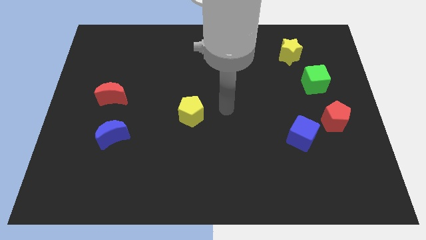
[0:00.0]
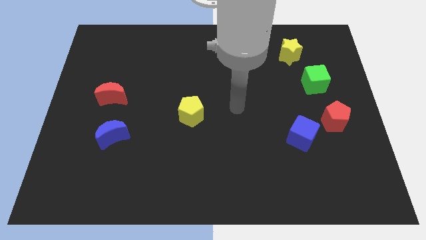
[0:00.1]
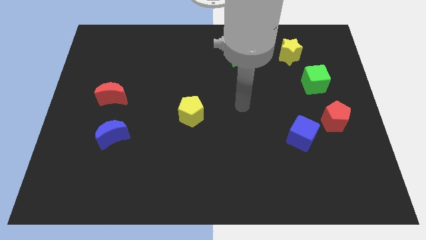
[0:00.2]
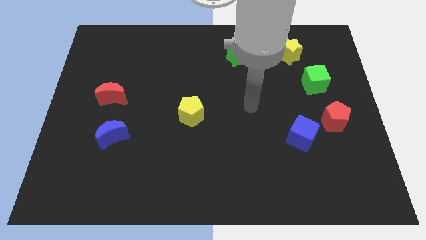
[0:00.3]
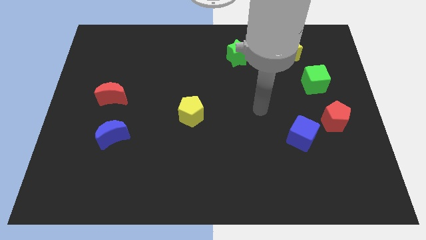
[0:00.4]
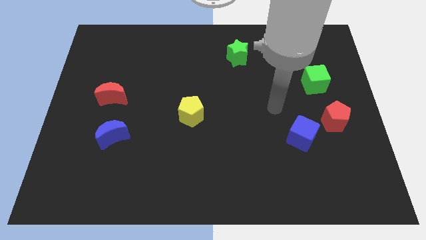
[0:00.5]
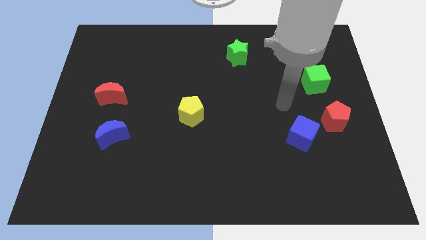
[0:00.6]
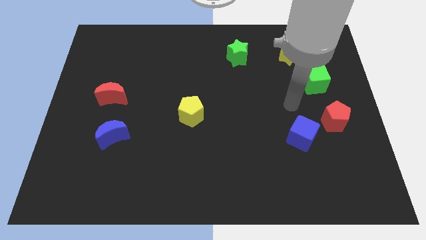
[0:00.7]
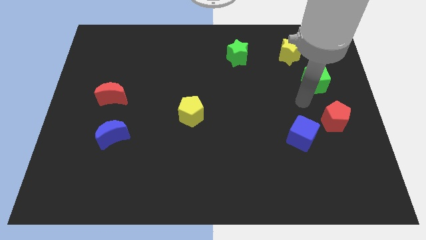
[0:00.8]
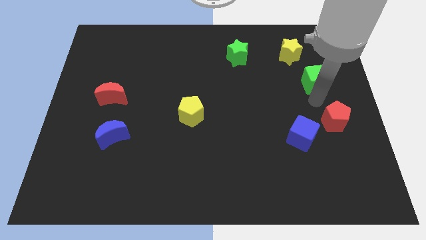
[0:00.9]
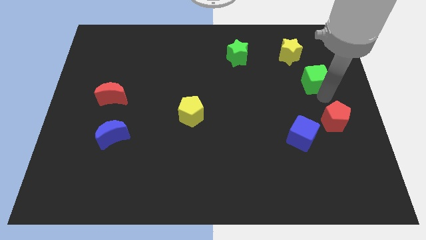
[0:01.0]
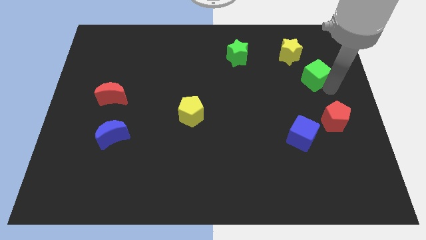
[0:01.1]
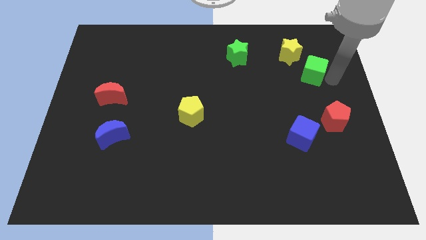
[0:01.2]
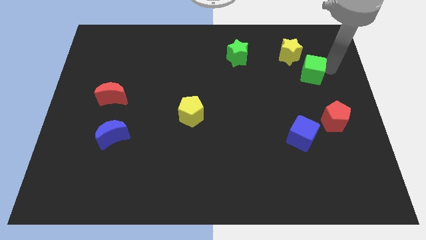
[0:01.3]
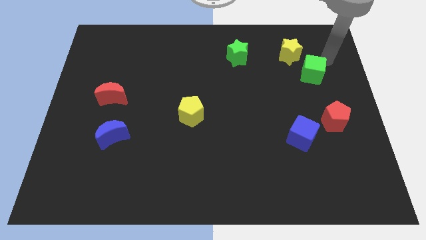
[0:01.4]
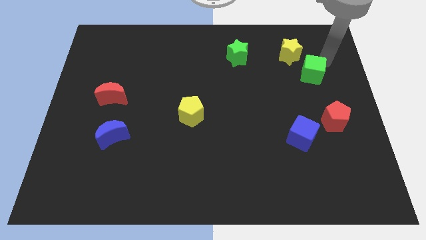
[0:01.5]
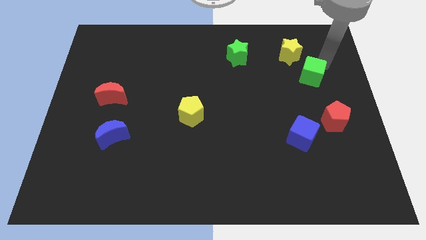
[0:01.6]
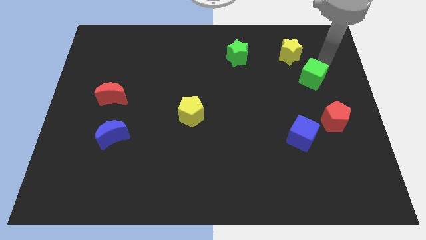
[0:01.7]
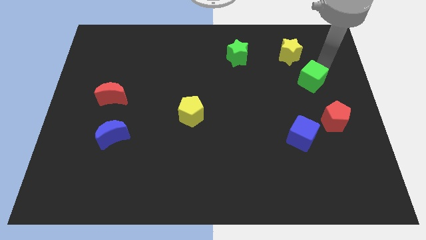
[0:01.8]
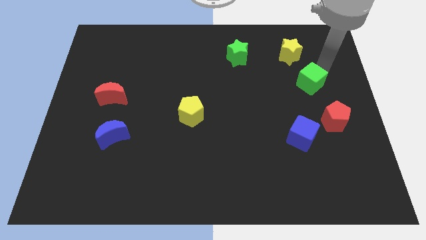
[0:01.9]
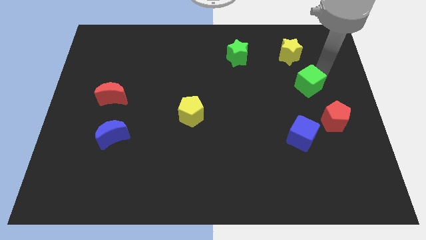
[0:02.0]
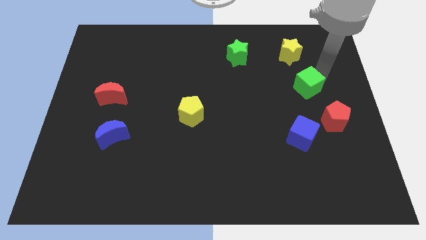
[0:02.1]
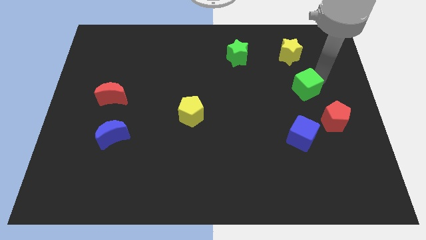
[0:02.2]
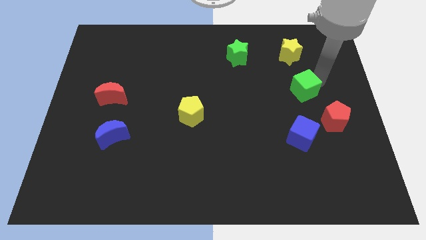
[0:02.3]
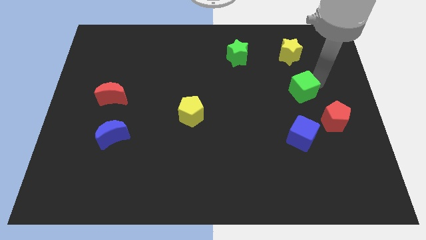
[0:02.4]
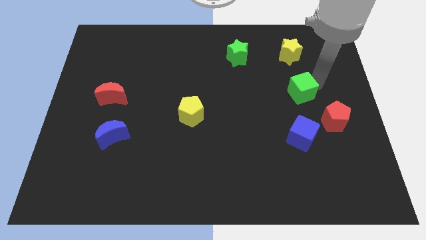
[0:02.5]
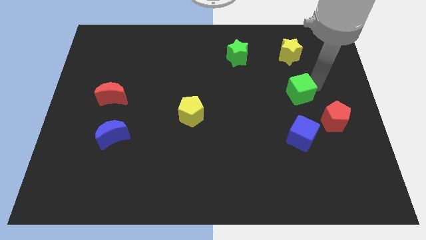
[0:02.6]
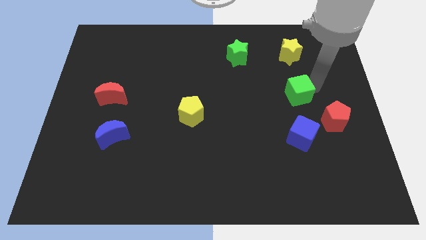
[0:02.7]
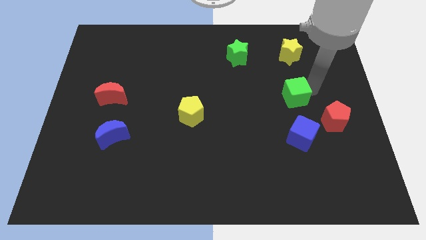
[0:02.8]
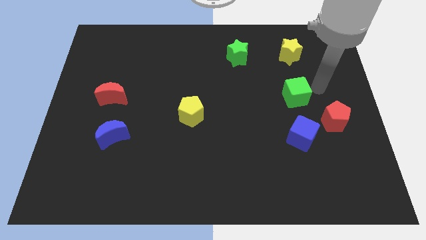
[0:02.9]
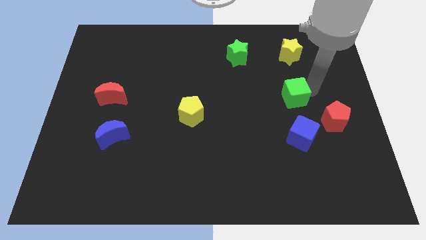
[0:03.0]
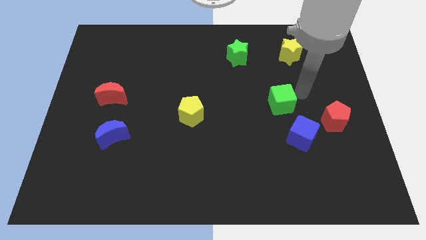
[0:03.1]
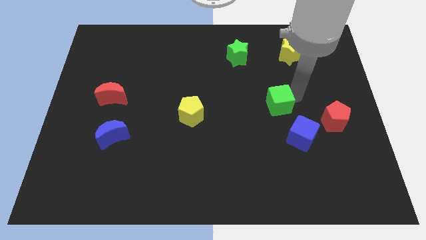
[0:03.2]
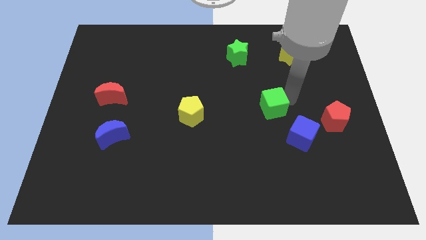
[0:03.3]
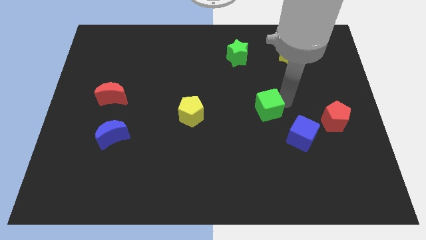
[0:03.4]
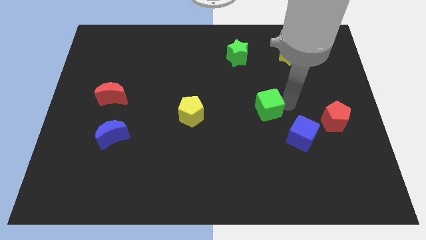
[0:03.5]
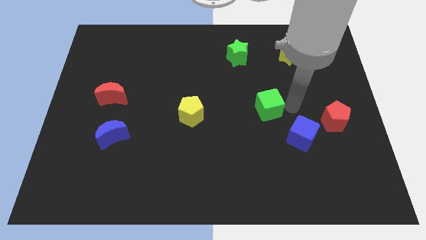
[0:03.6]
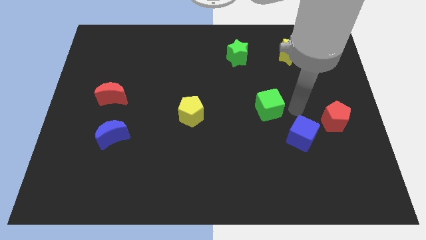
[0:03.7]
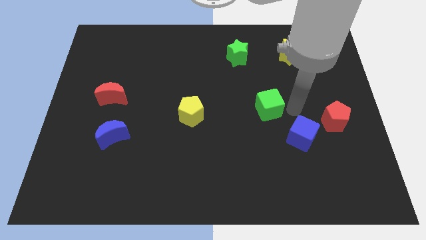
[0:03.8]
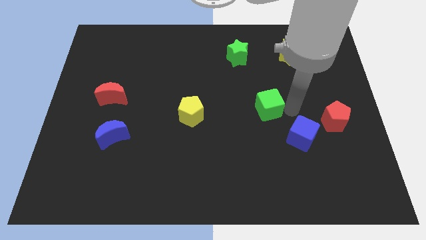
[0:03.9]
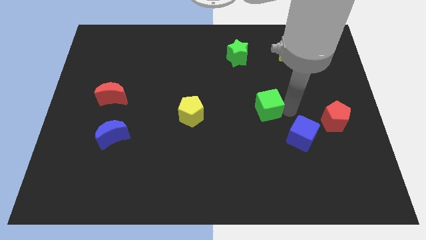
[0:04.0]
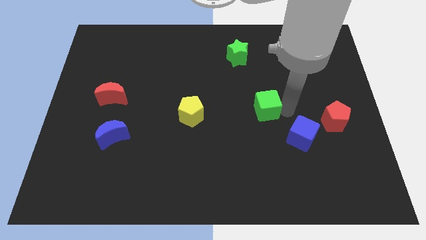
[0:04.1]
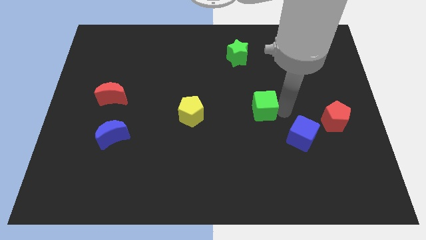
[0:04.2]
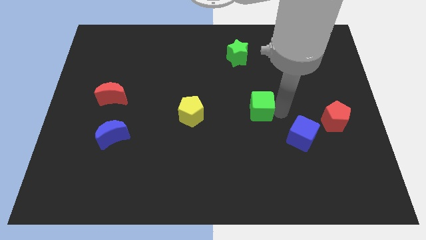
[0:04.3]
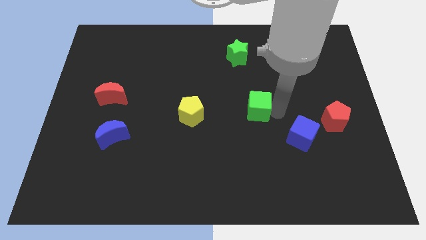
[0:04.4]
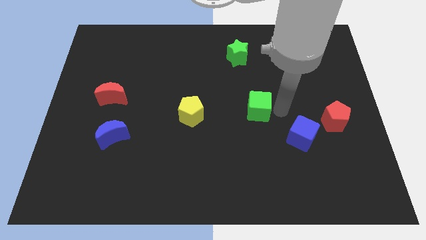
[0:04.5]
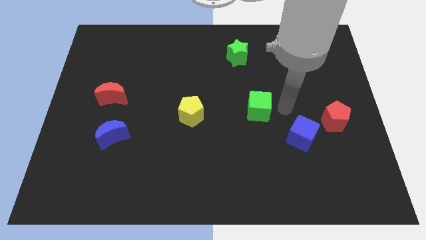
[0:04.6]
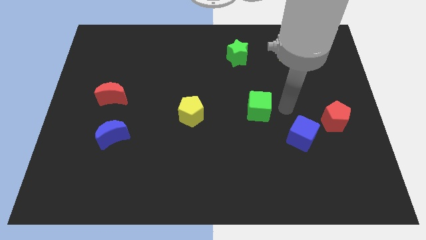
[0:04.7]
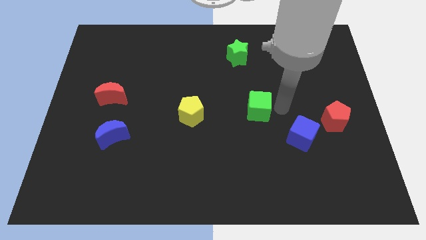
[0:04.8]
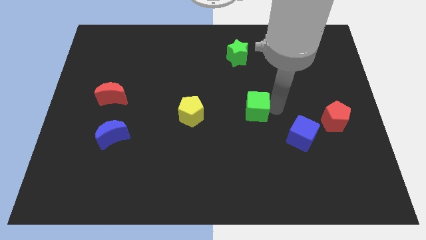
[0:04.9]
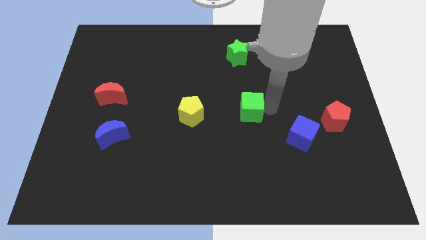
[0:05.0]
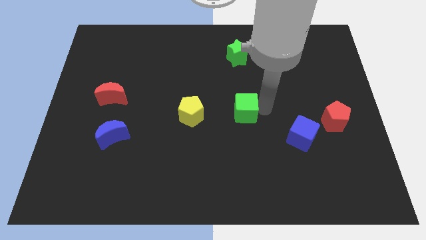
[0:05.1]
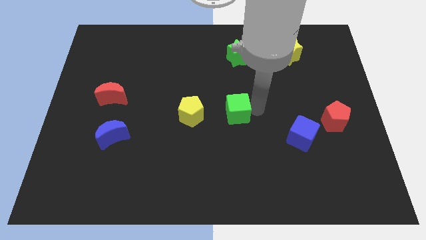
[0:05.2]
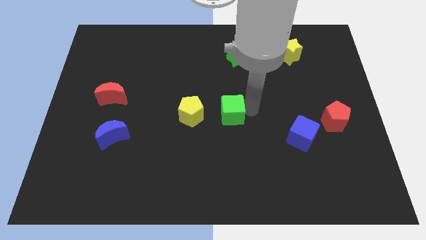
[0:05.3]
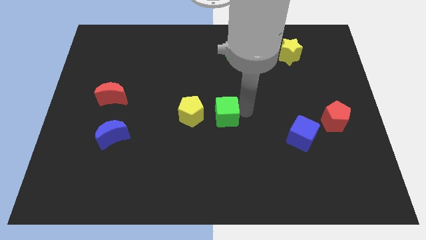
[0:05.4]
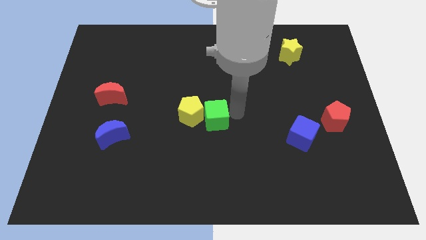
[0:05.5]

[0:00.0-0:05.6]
push the green cube to the yellow pentagon

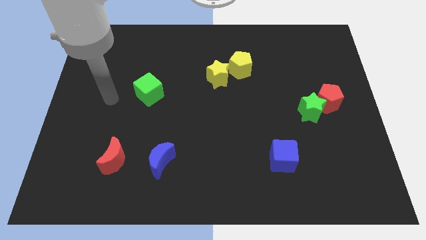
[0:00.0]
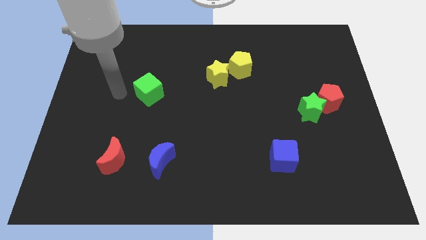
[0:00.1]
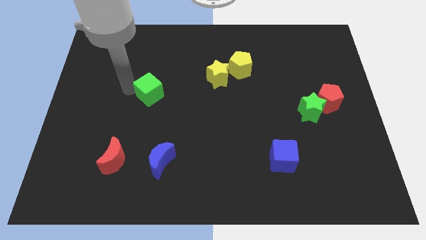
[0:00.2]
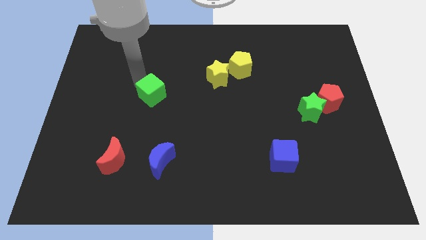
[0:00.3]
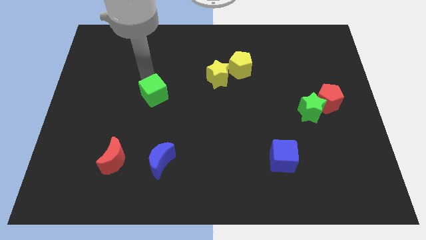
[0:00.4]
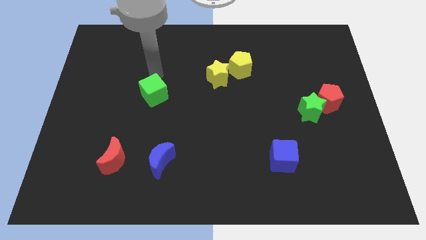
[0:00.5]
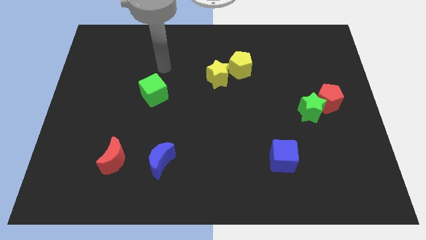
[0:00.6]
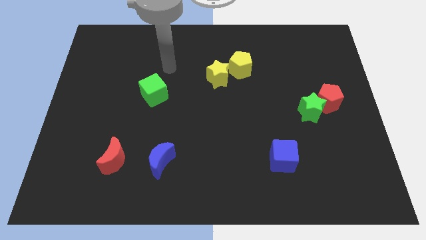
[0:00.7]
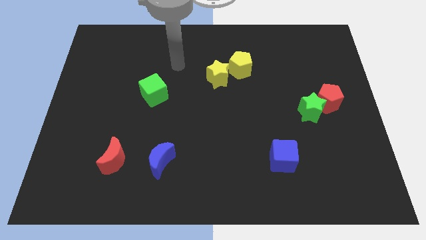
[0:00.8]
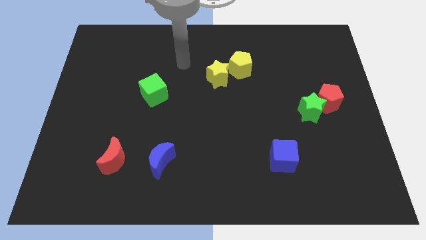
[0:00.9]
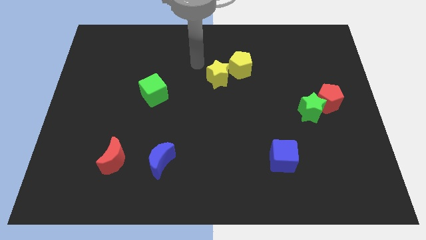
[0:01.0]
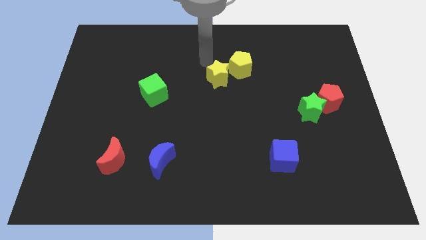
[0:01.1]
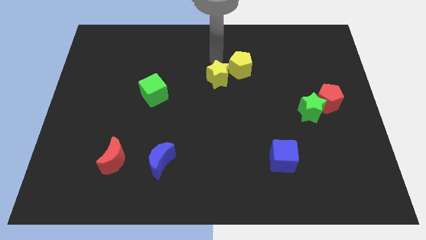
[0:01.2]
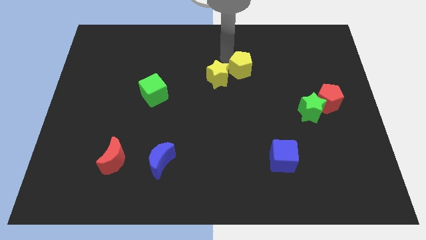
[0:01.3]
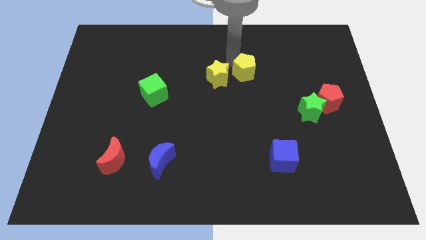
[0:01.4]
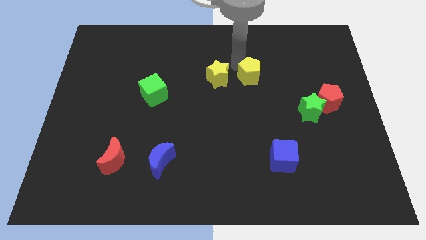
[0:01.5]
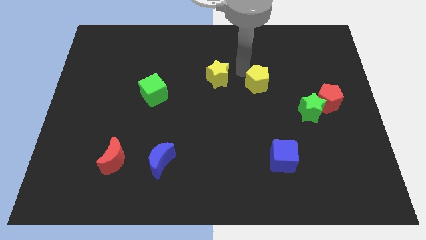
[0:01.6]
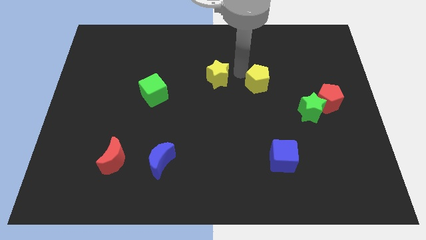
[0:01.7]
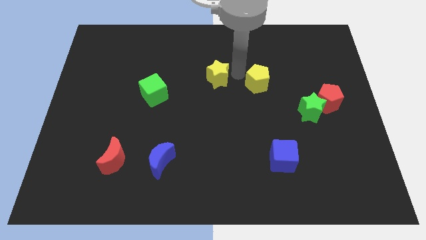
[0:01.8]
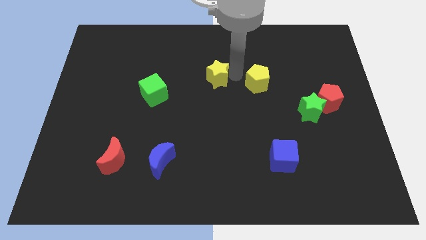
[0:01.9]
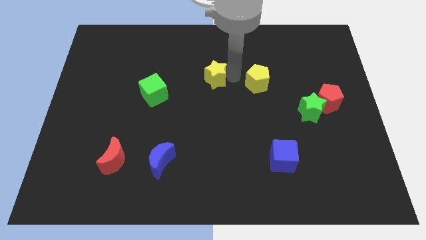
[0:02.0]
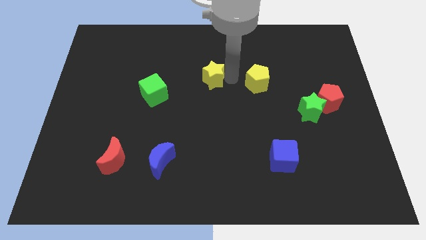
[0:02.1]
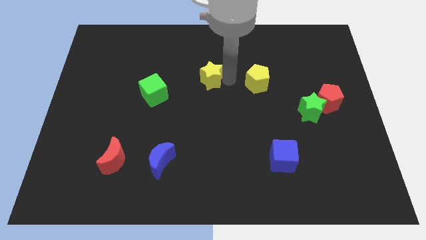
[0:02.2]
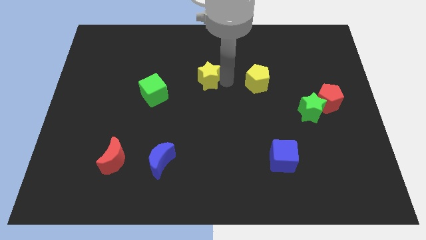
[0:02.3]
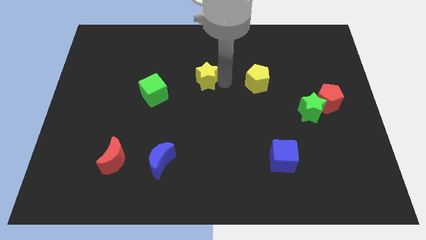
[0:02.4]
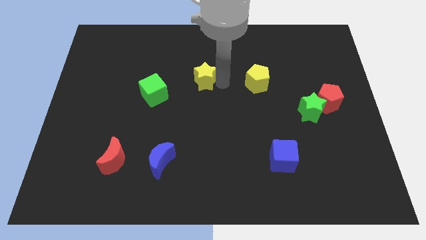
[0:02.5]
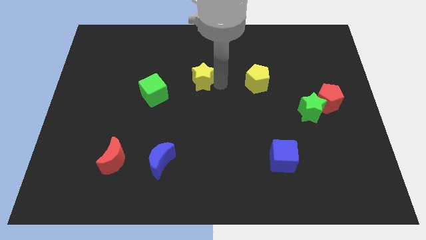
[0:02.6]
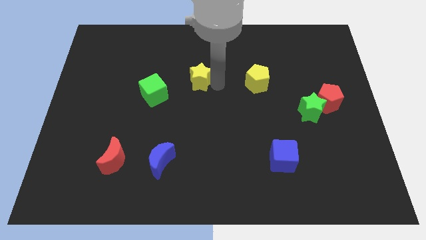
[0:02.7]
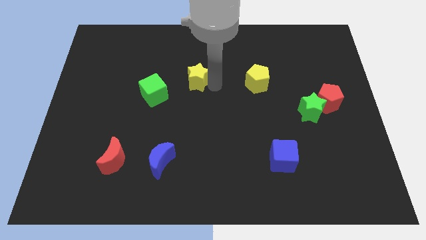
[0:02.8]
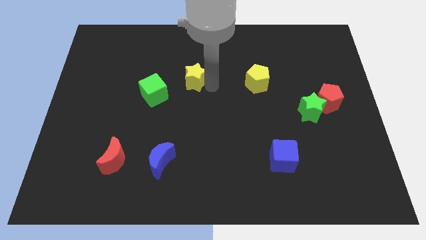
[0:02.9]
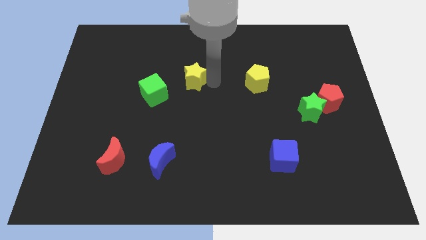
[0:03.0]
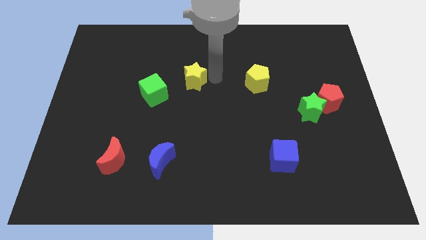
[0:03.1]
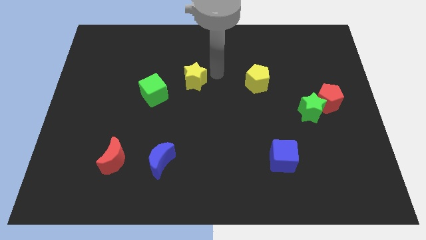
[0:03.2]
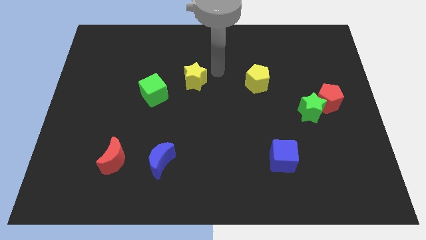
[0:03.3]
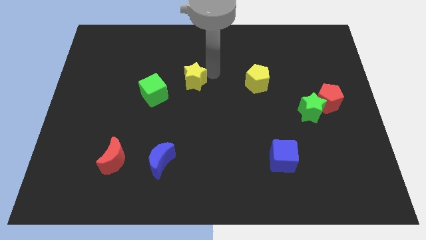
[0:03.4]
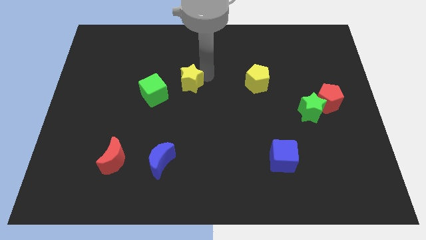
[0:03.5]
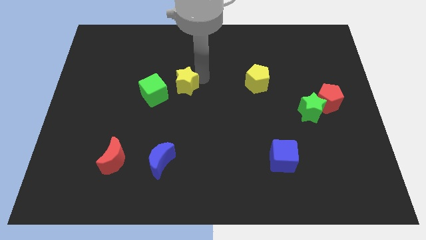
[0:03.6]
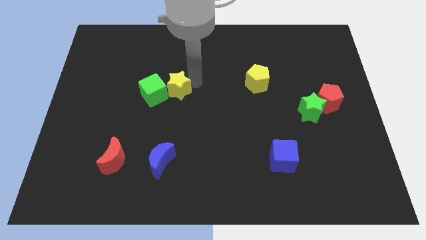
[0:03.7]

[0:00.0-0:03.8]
move the yellow star close to the green cube
